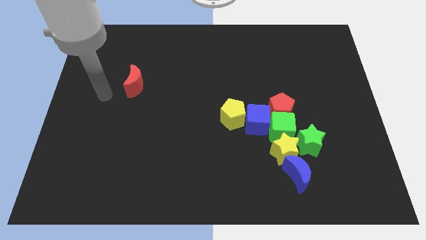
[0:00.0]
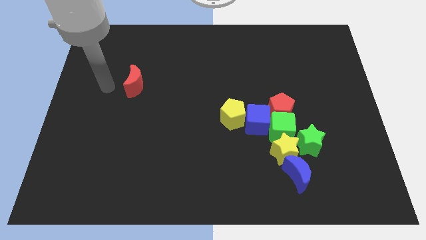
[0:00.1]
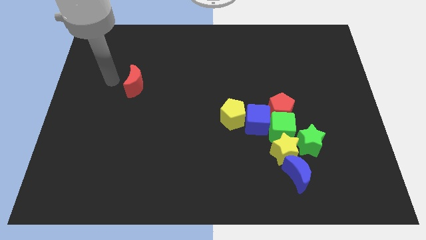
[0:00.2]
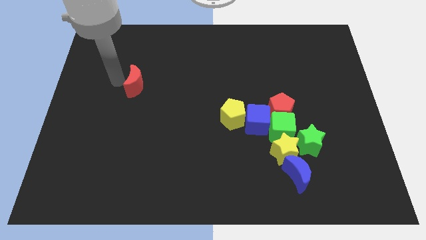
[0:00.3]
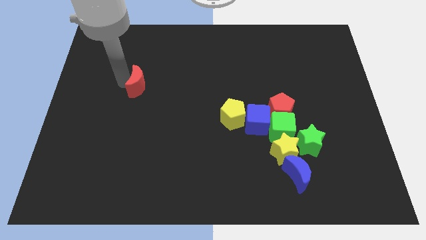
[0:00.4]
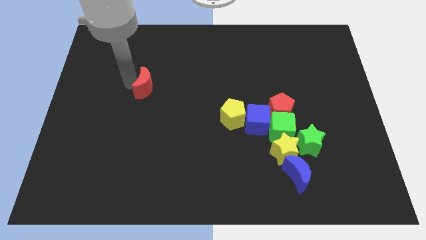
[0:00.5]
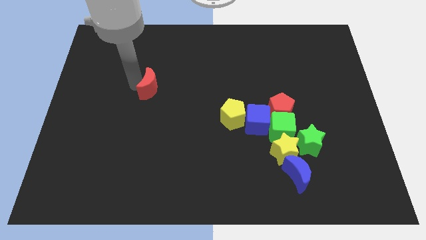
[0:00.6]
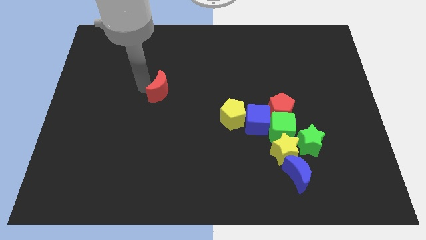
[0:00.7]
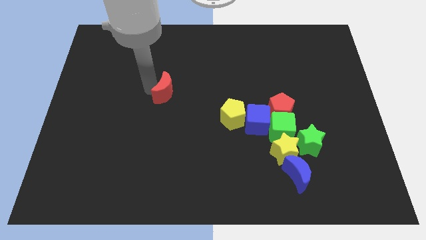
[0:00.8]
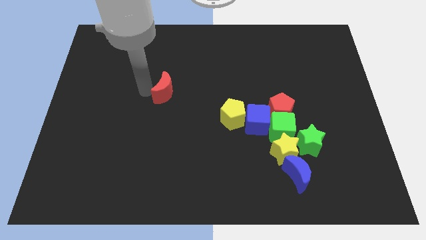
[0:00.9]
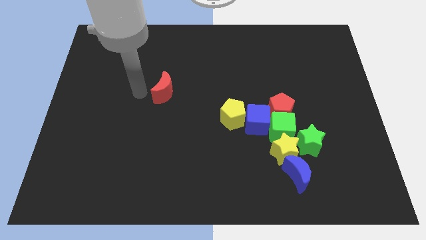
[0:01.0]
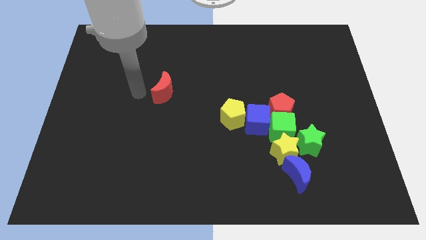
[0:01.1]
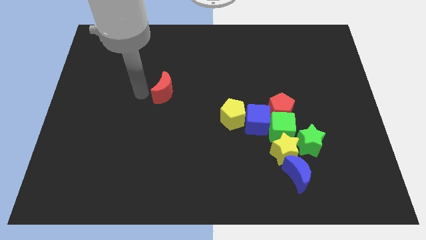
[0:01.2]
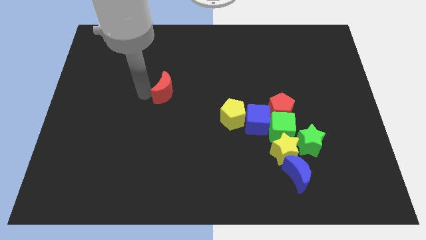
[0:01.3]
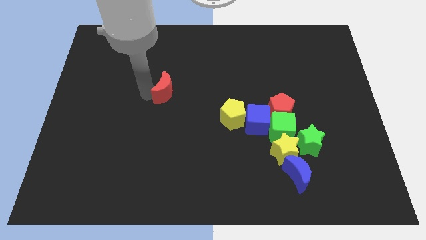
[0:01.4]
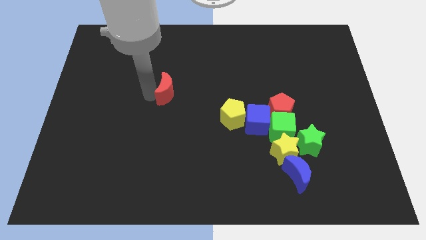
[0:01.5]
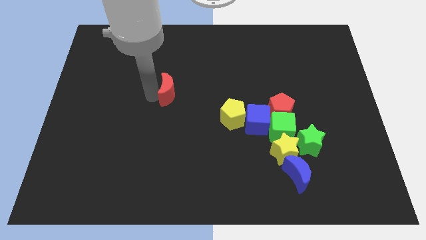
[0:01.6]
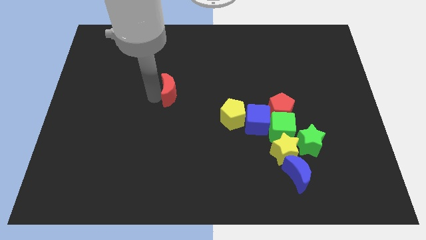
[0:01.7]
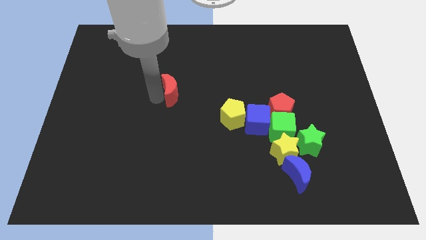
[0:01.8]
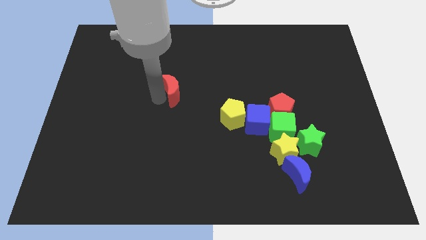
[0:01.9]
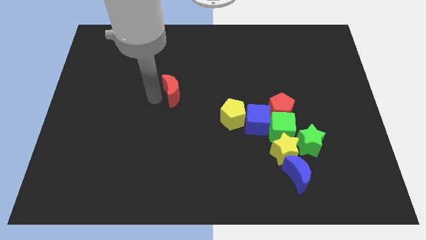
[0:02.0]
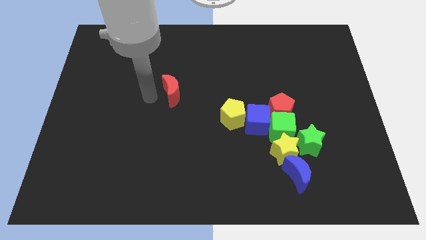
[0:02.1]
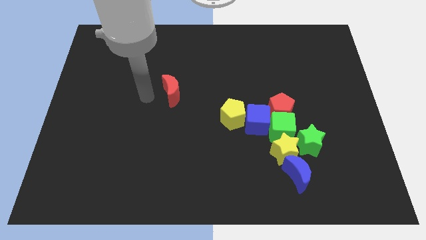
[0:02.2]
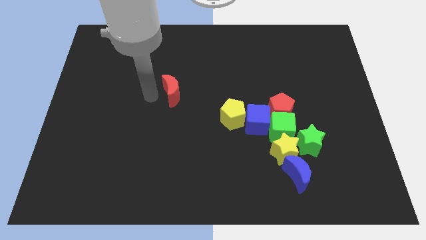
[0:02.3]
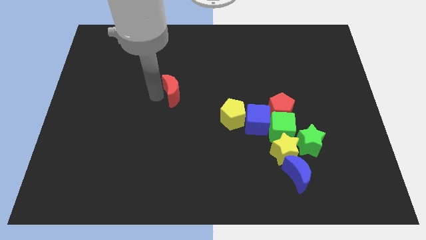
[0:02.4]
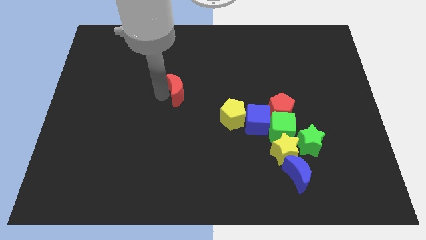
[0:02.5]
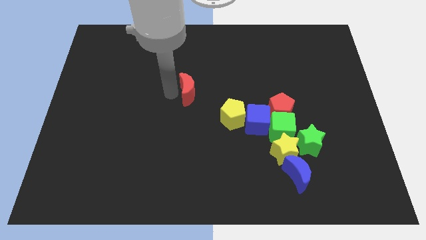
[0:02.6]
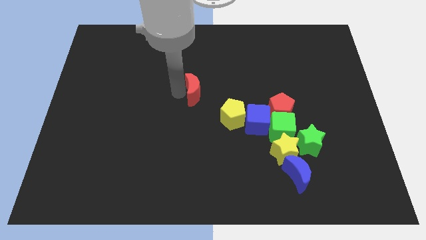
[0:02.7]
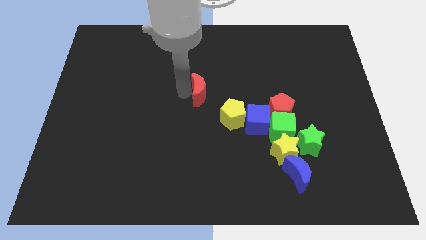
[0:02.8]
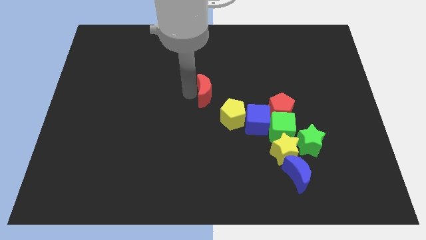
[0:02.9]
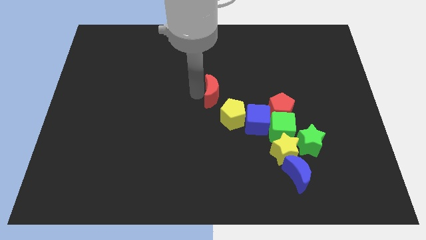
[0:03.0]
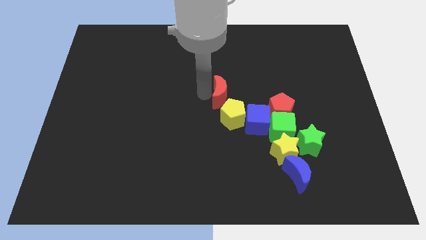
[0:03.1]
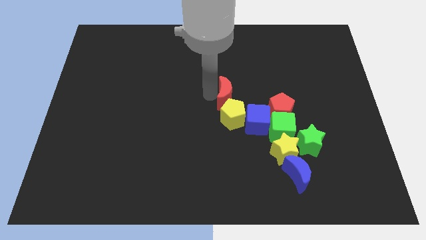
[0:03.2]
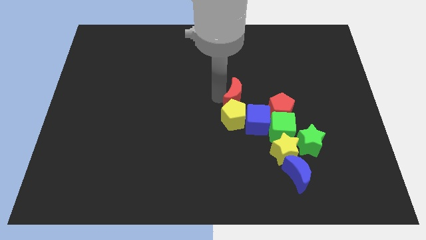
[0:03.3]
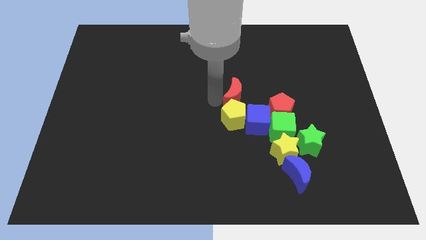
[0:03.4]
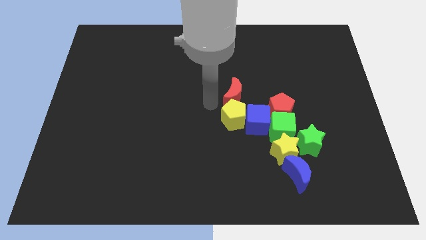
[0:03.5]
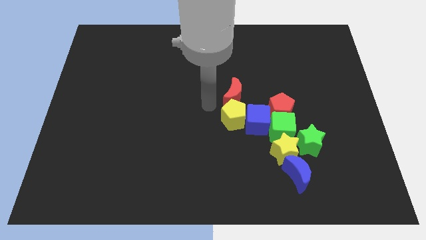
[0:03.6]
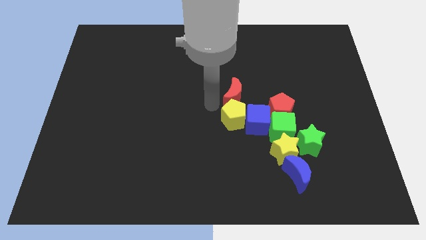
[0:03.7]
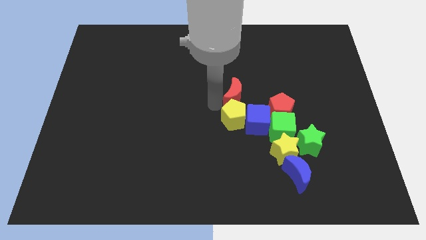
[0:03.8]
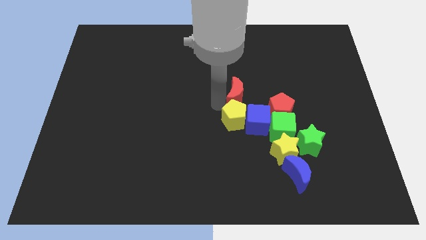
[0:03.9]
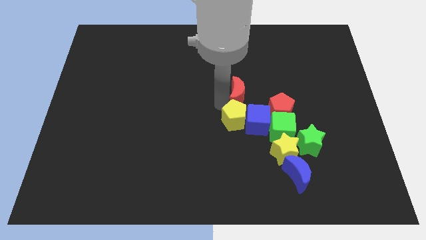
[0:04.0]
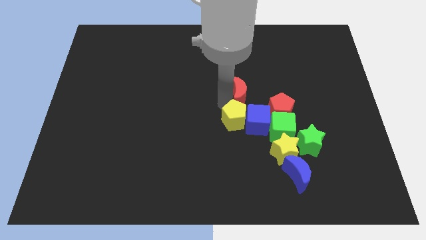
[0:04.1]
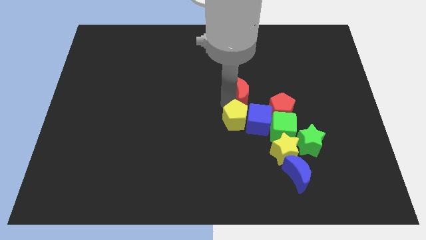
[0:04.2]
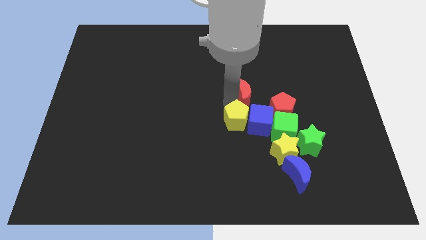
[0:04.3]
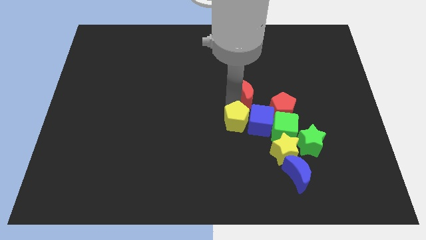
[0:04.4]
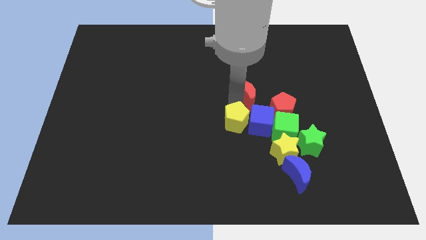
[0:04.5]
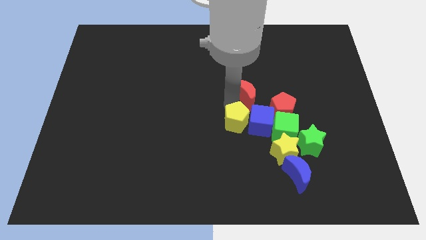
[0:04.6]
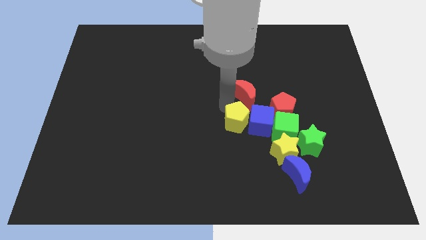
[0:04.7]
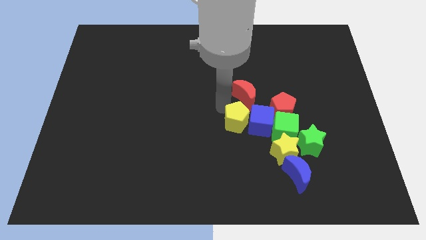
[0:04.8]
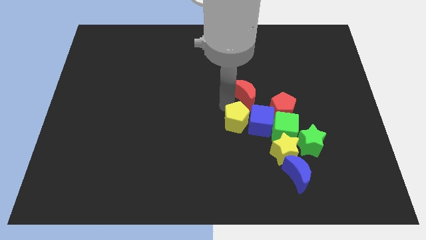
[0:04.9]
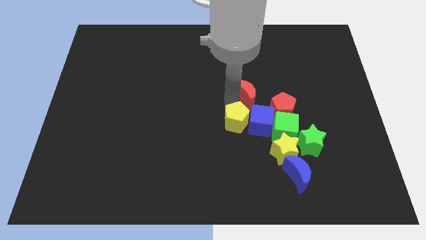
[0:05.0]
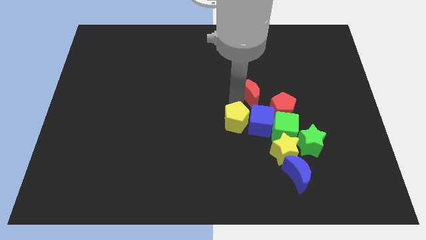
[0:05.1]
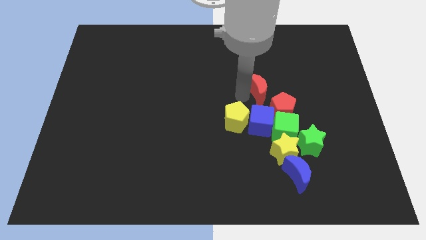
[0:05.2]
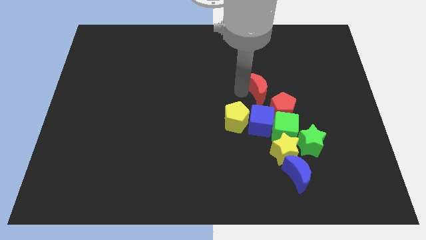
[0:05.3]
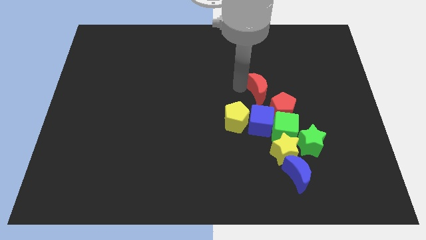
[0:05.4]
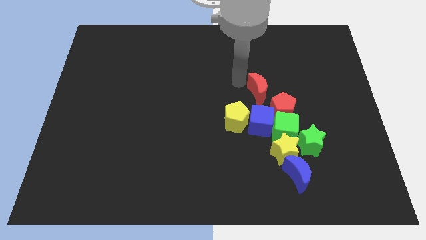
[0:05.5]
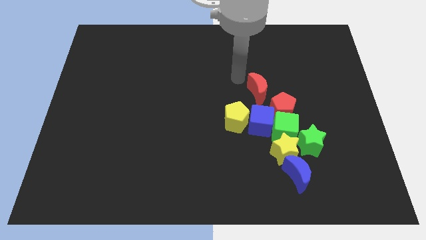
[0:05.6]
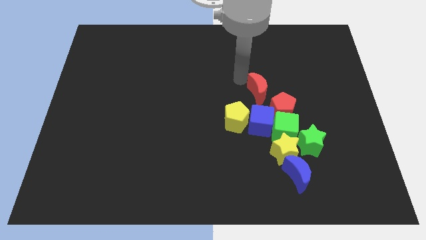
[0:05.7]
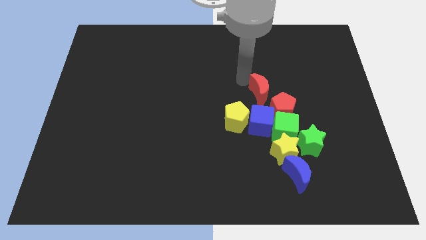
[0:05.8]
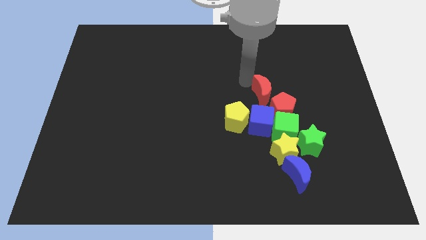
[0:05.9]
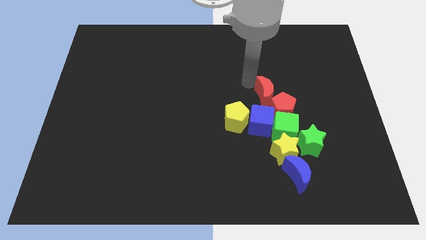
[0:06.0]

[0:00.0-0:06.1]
put the red moon to the top right of the blue cube

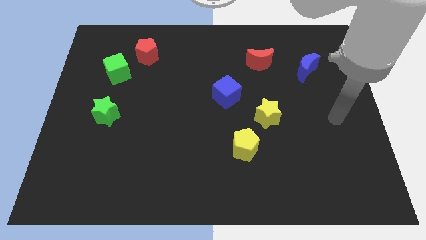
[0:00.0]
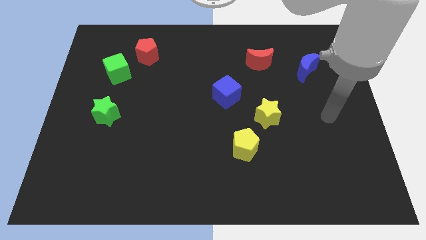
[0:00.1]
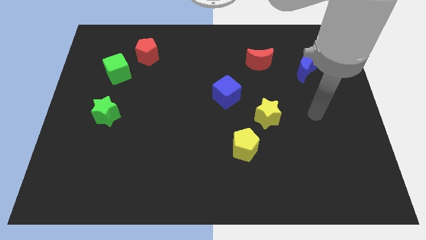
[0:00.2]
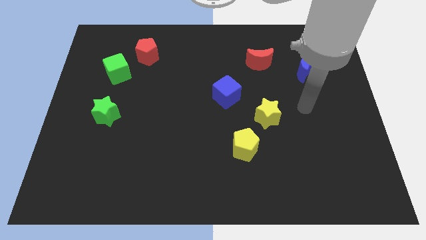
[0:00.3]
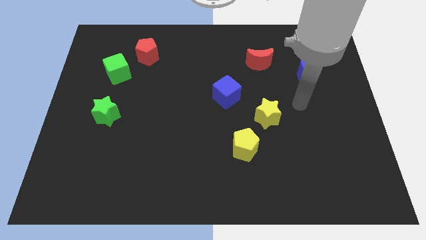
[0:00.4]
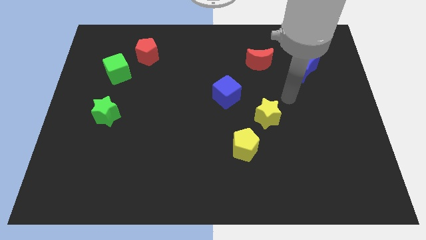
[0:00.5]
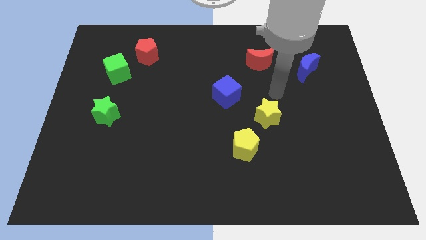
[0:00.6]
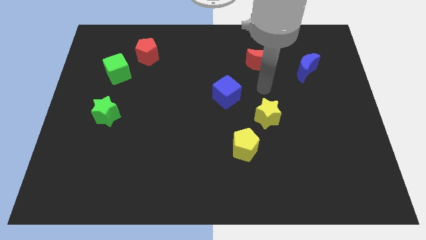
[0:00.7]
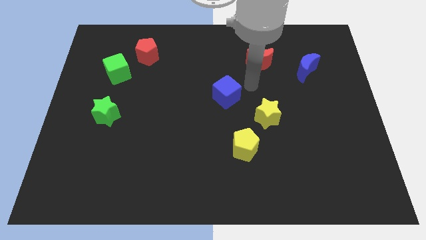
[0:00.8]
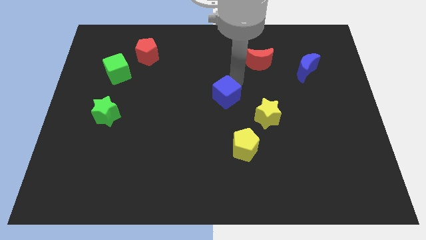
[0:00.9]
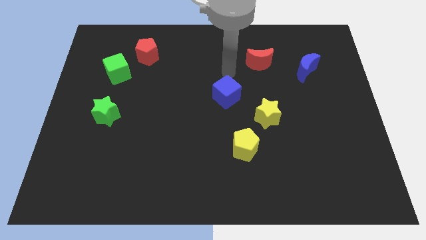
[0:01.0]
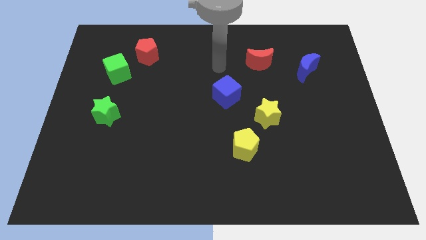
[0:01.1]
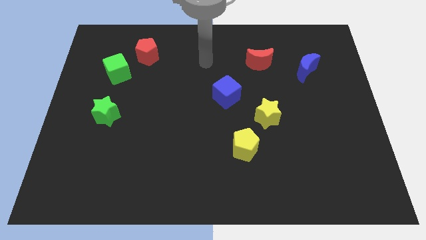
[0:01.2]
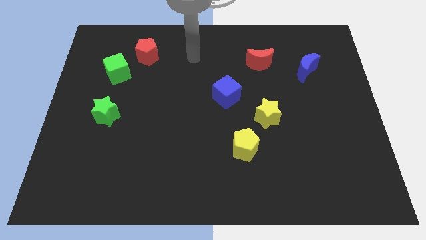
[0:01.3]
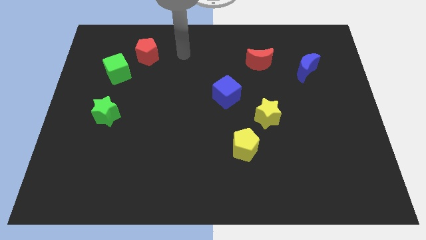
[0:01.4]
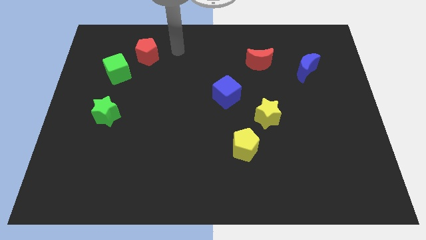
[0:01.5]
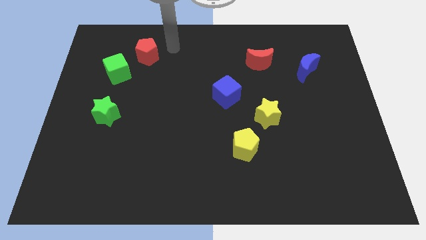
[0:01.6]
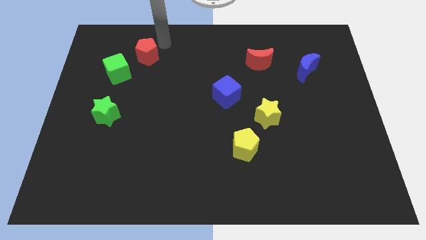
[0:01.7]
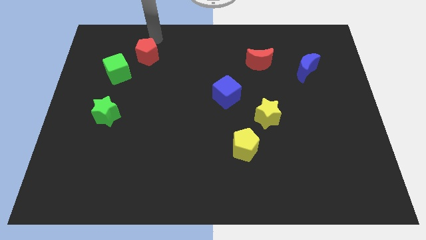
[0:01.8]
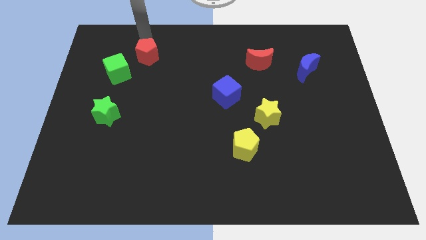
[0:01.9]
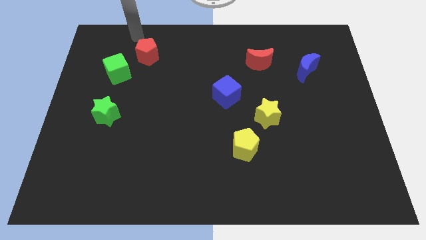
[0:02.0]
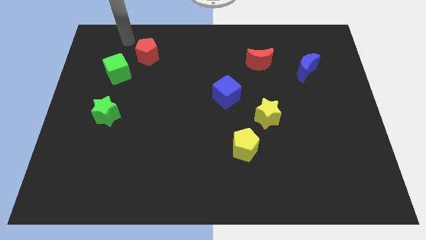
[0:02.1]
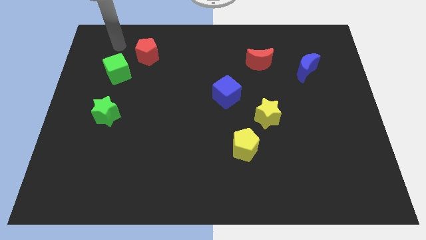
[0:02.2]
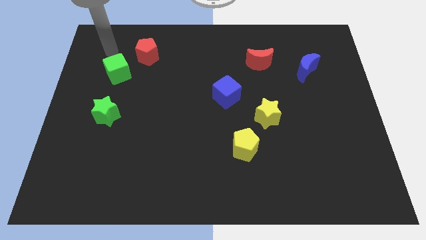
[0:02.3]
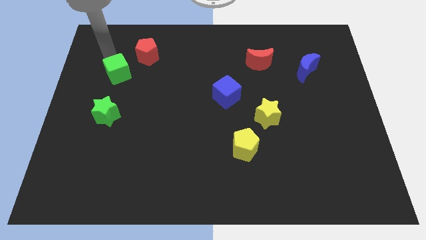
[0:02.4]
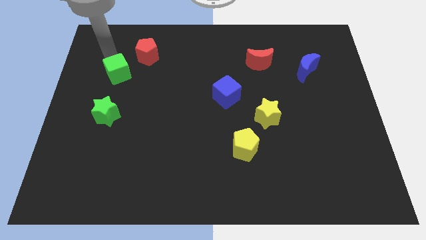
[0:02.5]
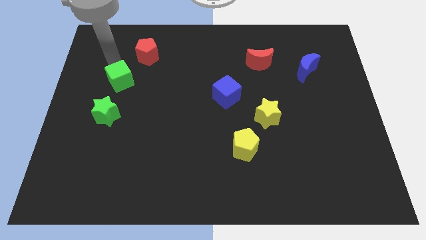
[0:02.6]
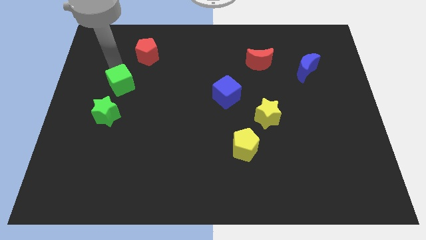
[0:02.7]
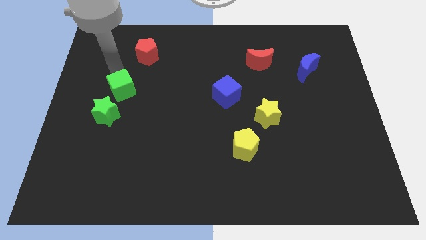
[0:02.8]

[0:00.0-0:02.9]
push the green cube to the top right of the green star
